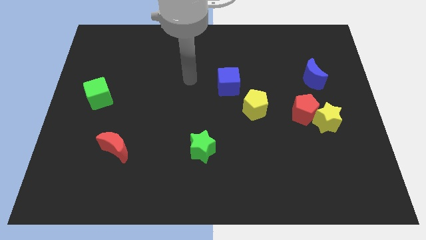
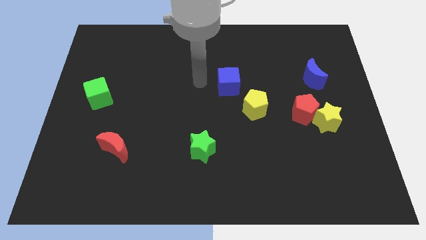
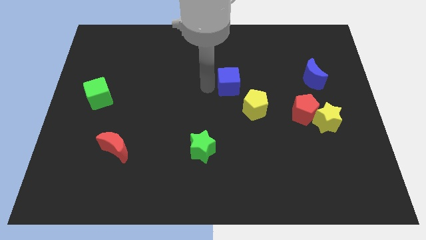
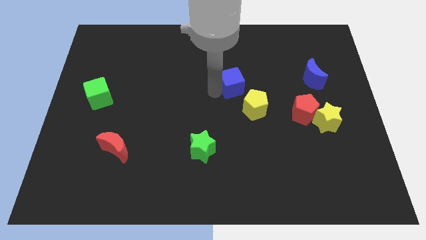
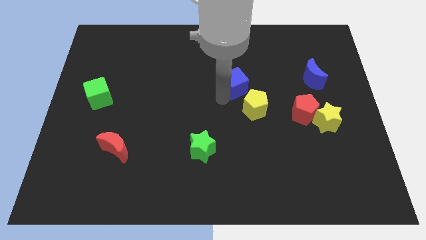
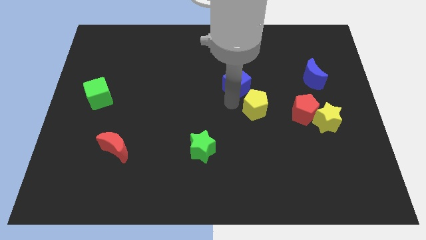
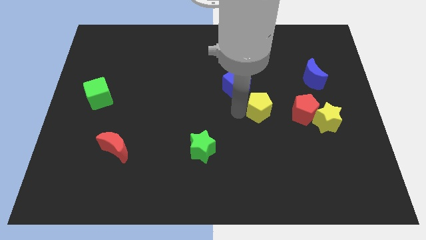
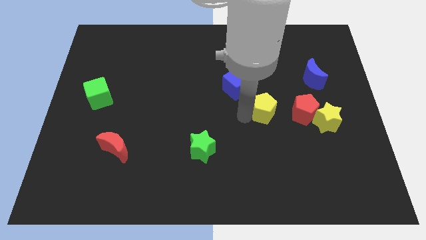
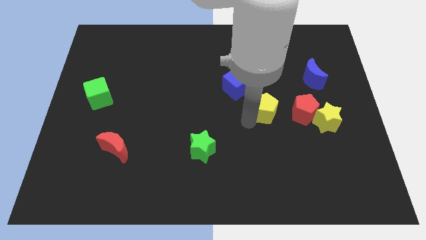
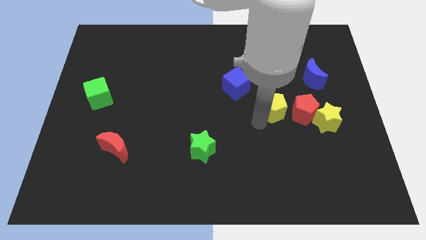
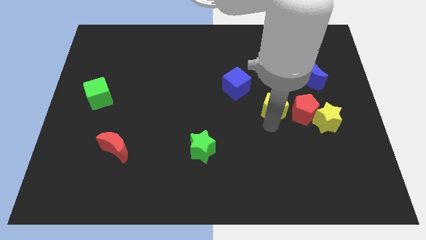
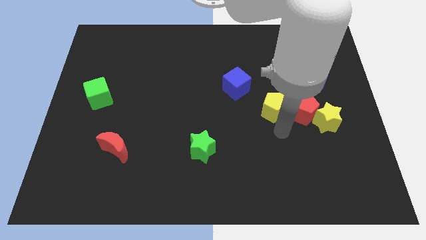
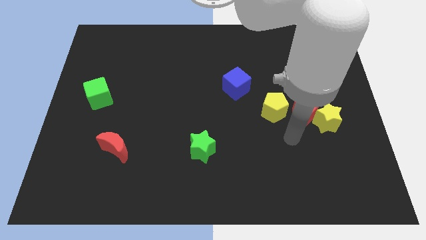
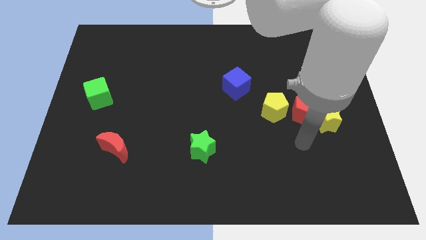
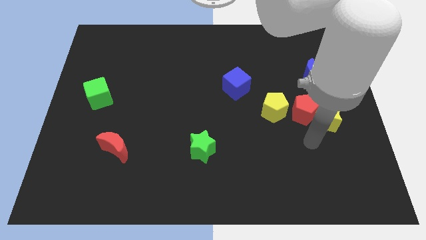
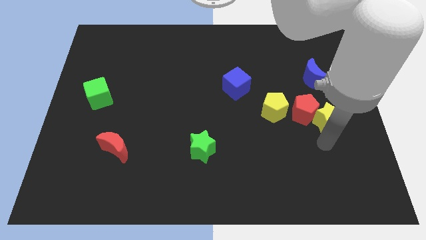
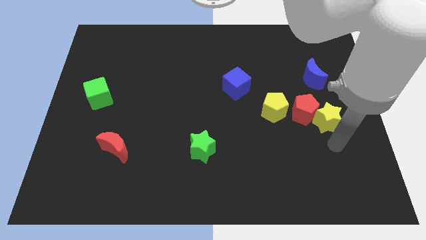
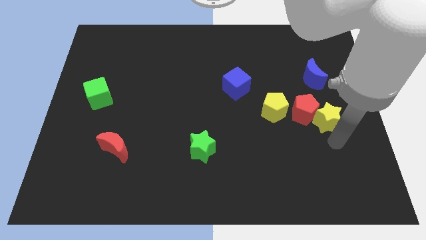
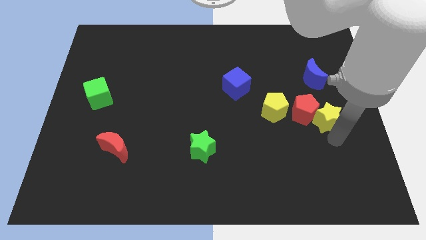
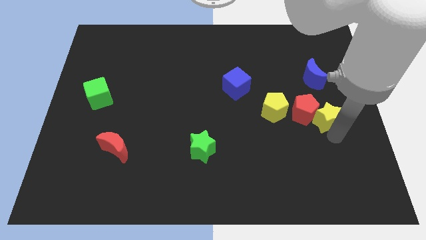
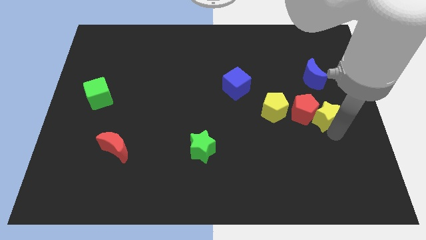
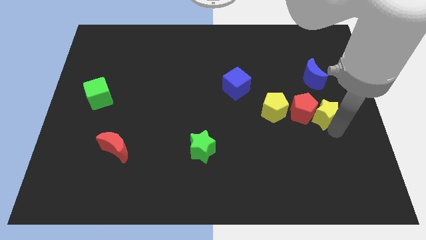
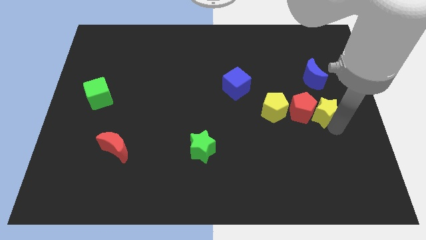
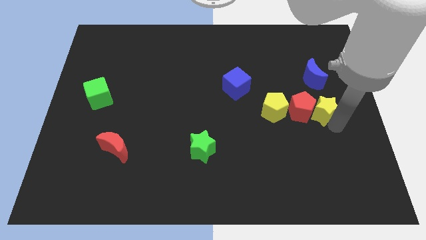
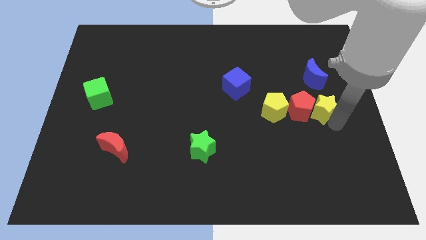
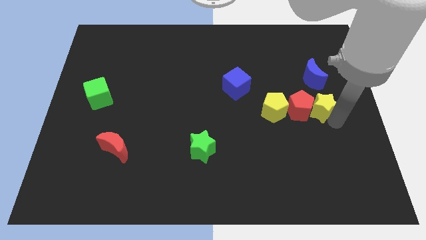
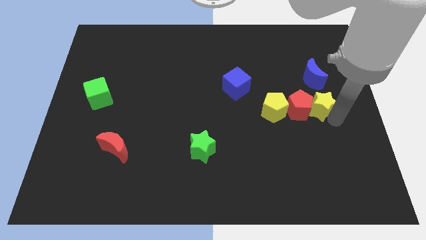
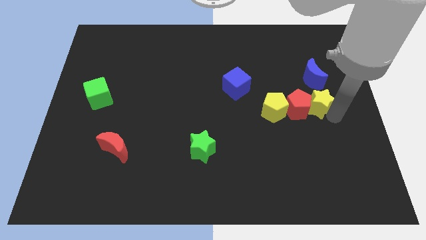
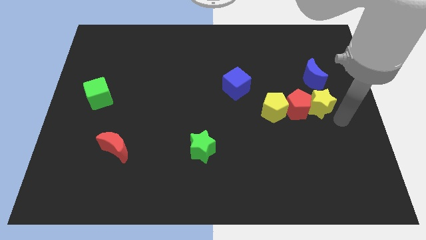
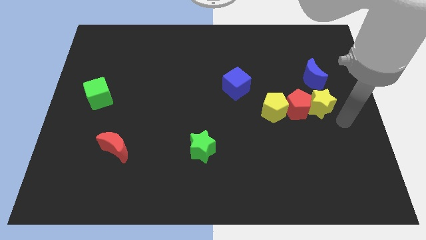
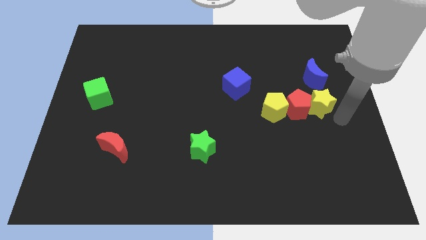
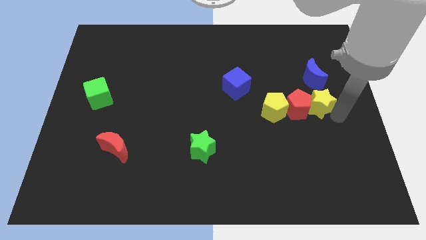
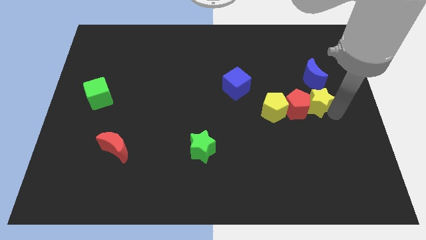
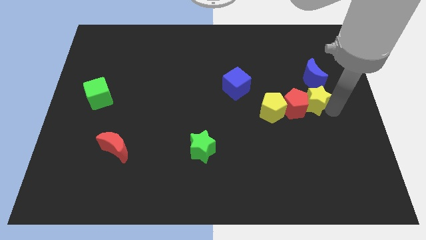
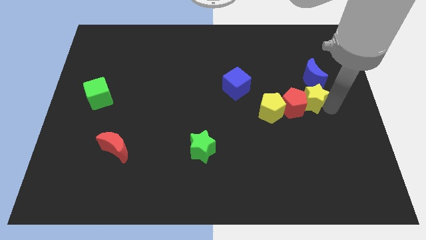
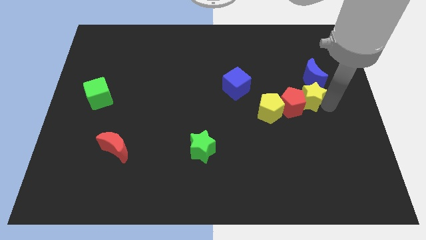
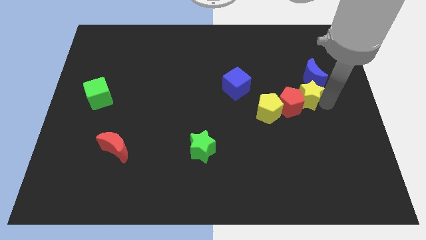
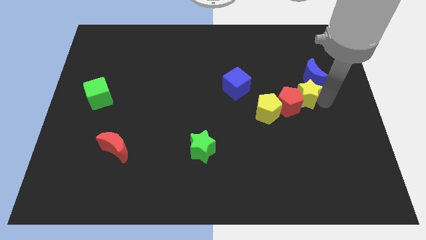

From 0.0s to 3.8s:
move the yellow star a bit upwards and to the left diagonally

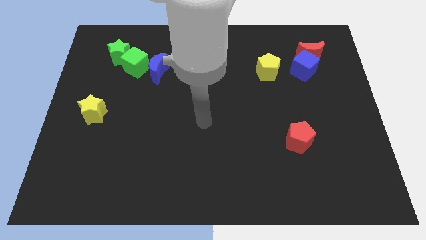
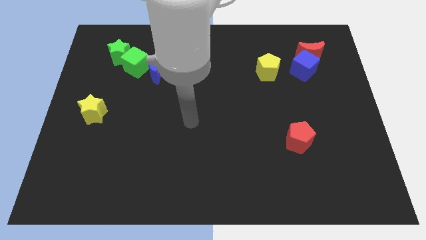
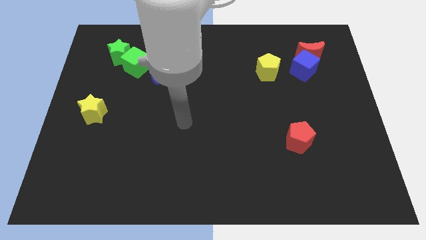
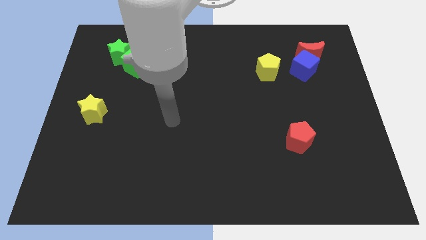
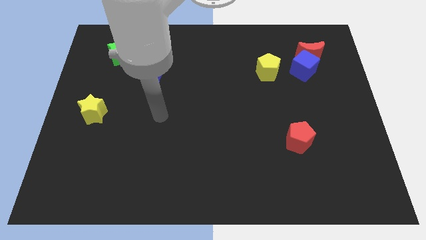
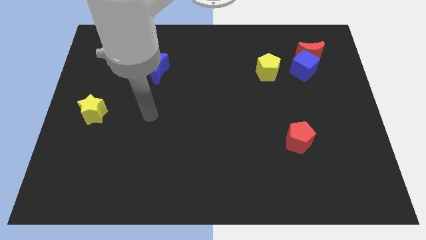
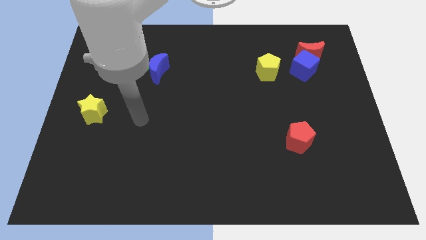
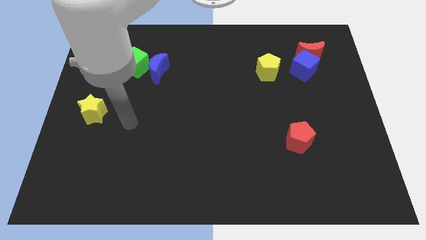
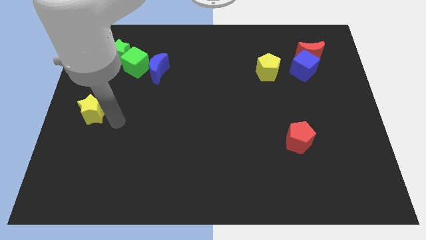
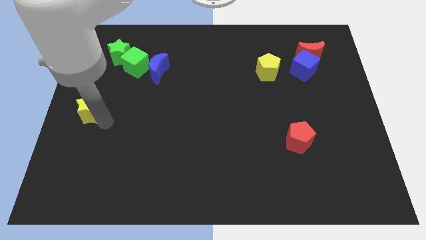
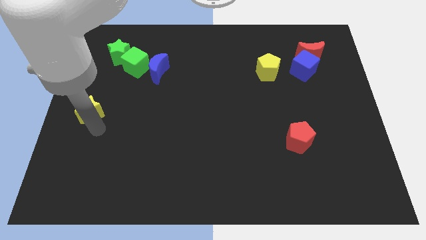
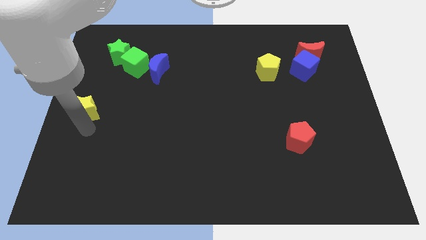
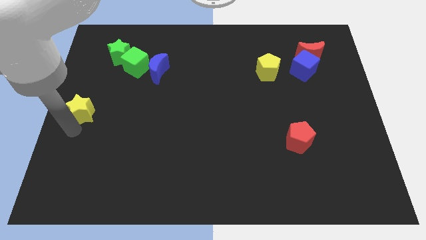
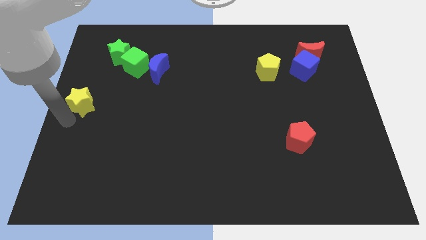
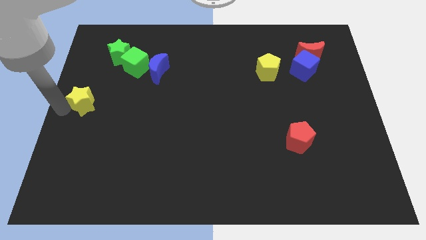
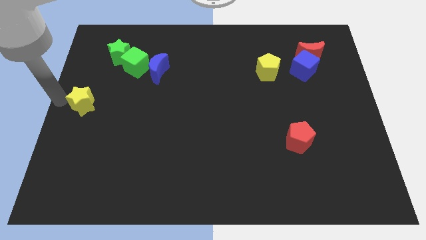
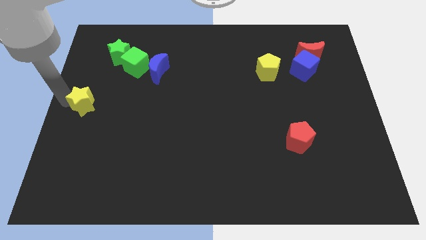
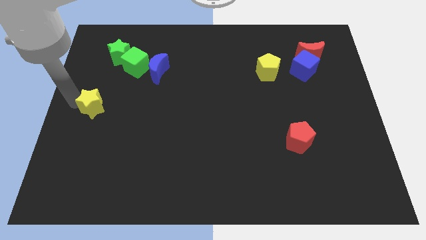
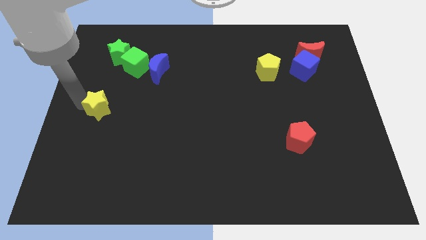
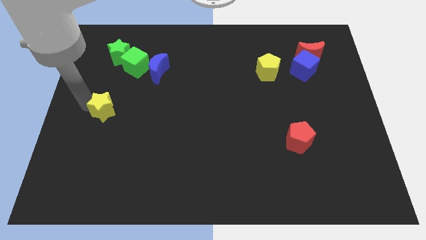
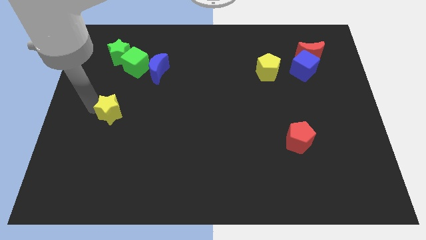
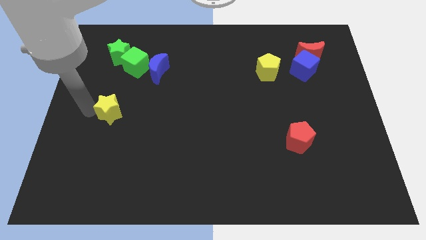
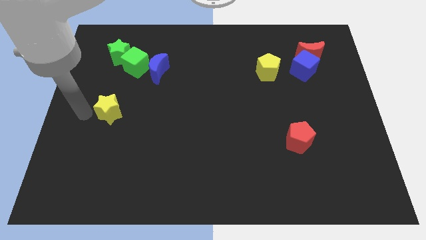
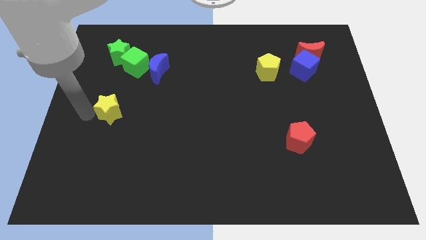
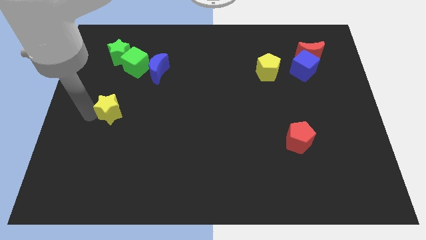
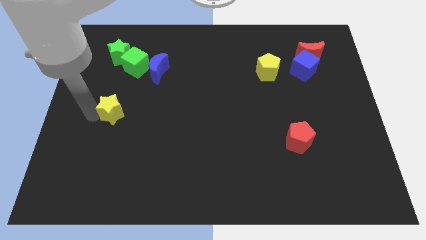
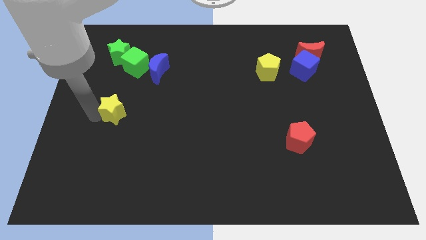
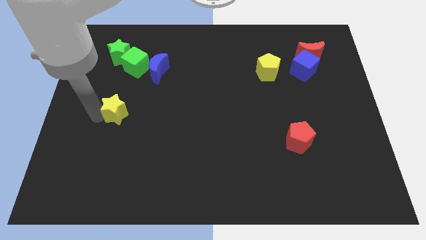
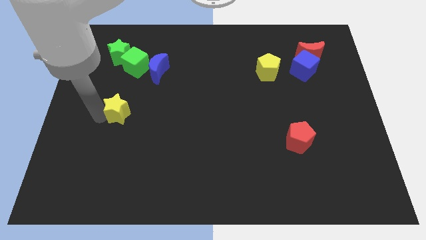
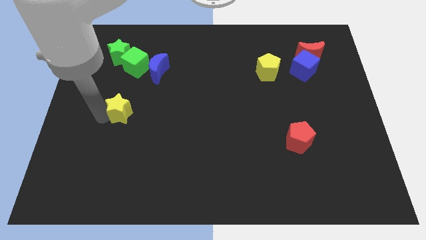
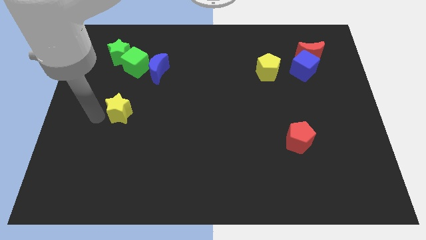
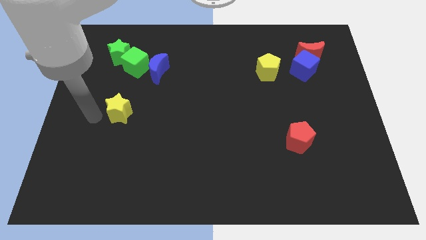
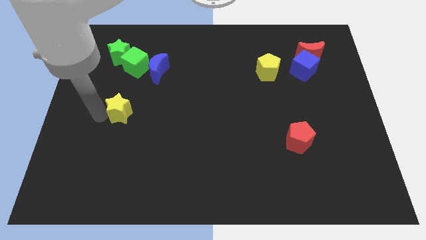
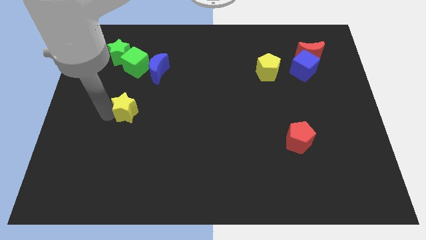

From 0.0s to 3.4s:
slightly push the yellow star right

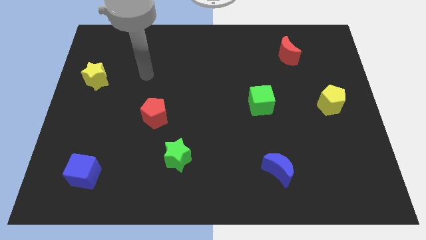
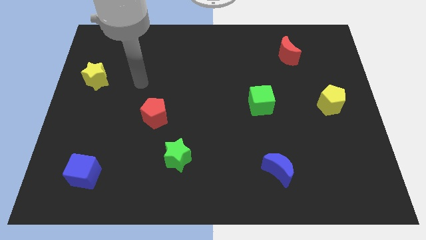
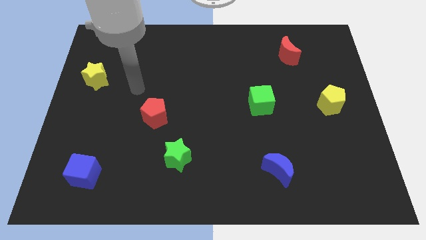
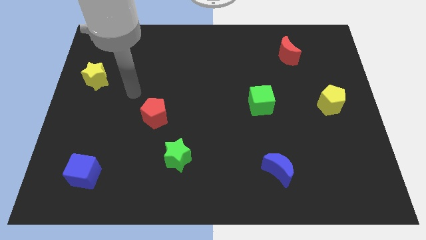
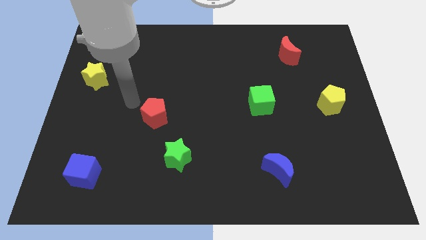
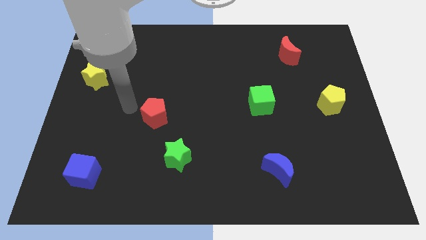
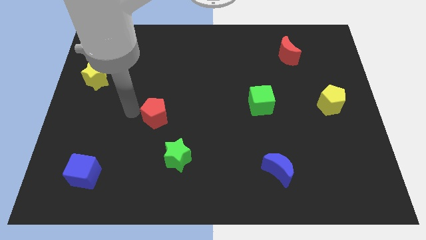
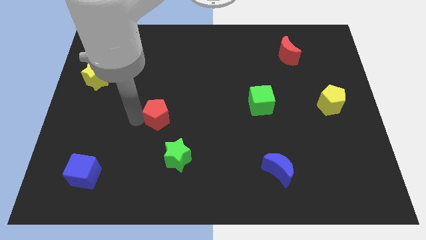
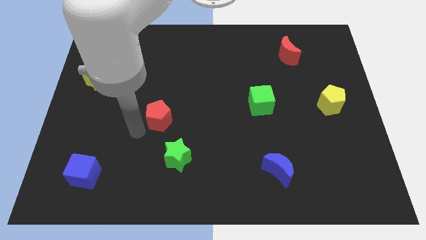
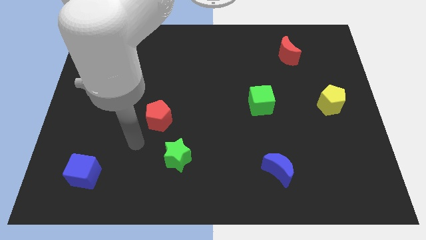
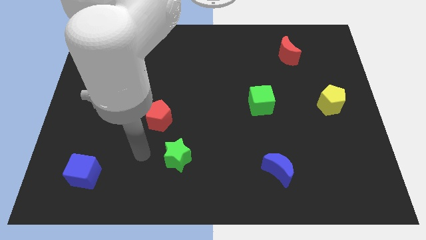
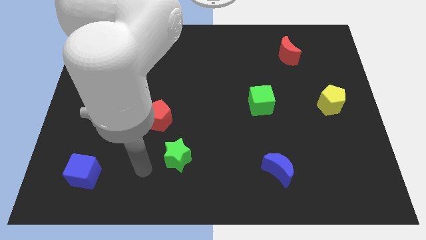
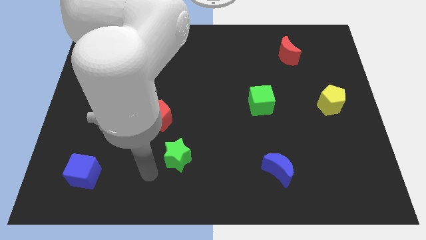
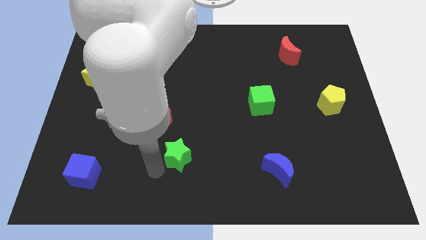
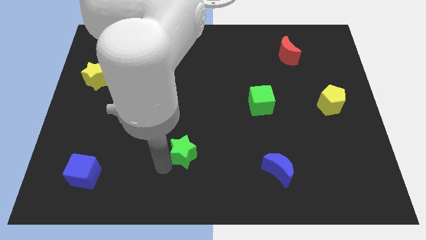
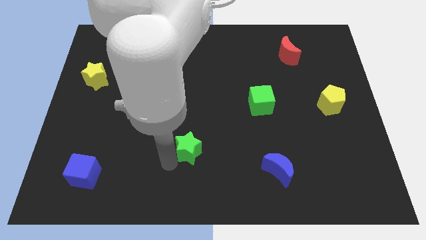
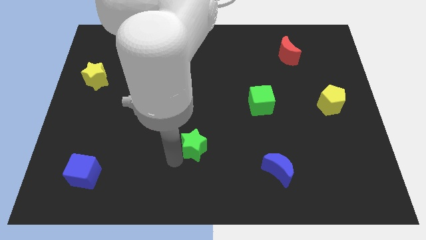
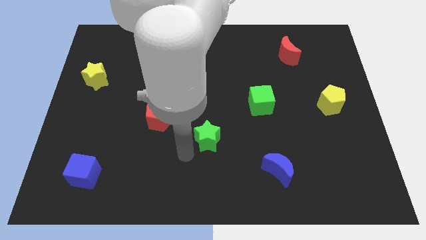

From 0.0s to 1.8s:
slide the green star up and then to the right a bit
